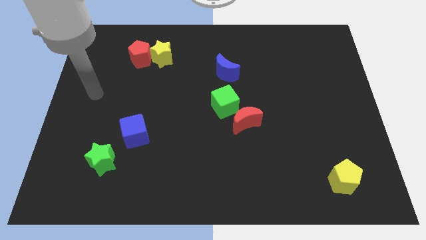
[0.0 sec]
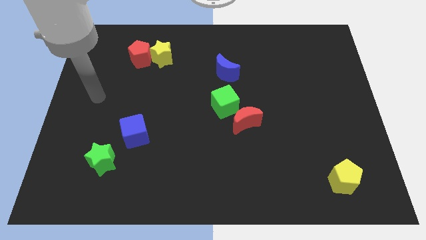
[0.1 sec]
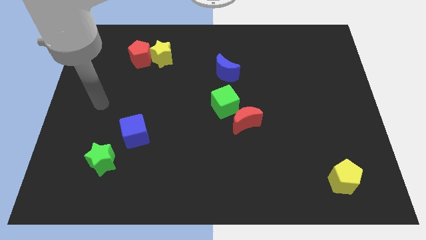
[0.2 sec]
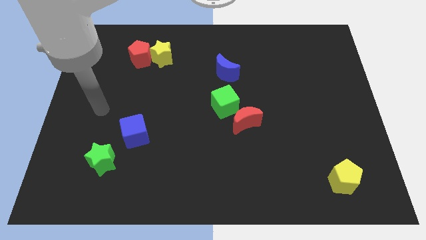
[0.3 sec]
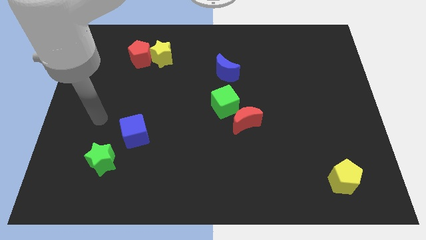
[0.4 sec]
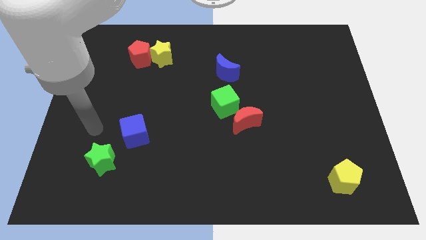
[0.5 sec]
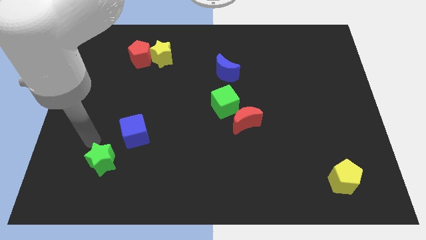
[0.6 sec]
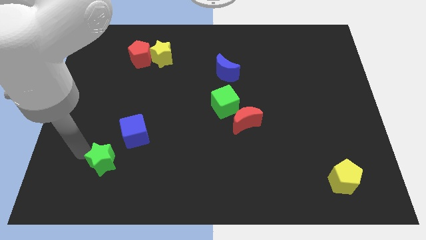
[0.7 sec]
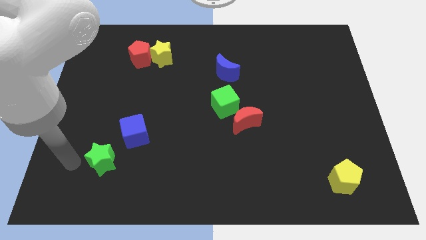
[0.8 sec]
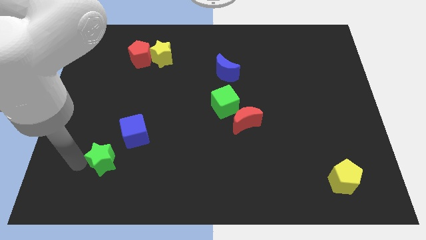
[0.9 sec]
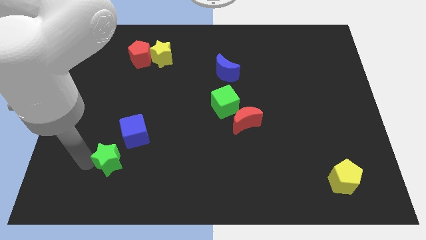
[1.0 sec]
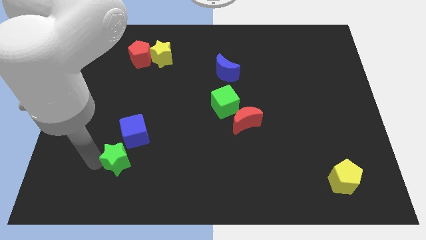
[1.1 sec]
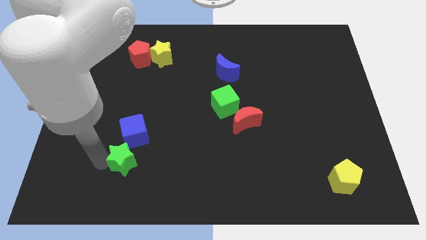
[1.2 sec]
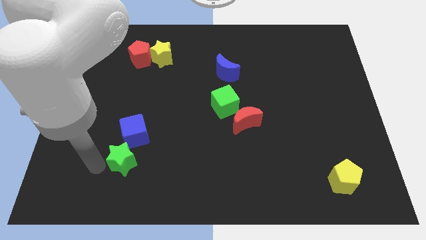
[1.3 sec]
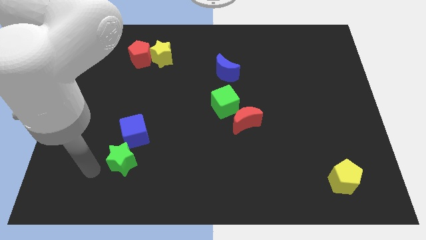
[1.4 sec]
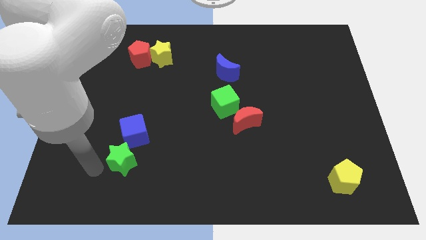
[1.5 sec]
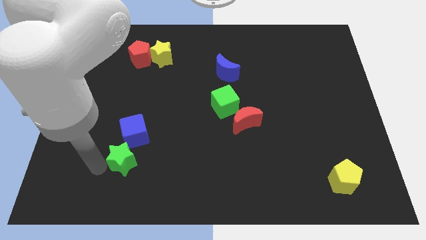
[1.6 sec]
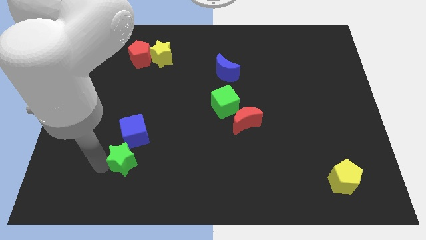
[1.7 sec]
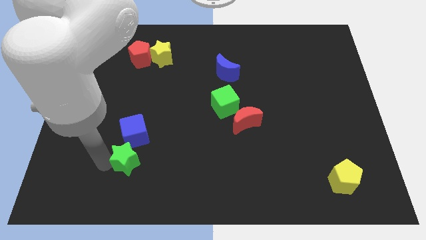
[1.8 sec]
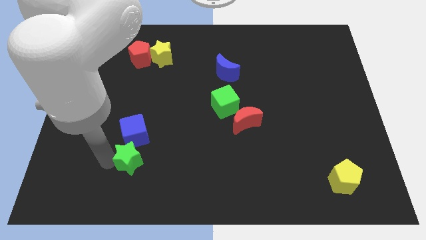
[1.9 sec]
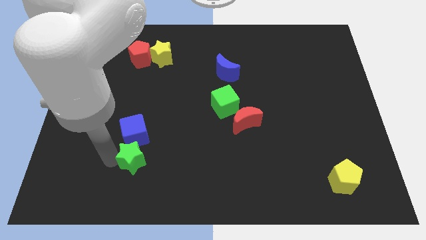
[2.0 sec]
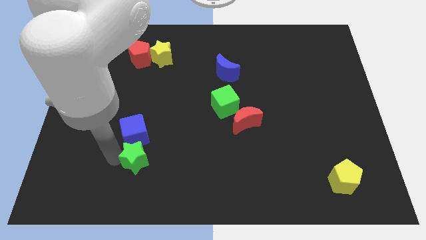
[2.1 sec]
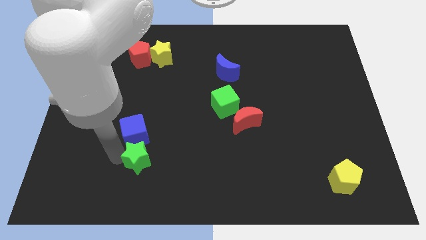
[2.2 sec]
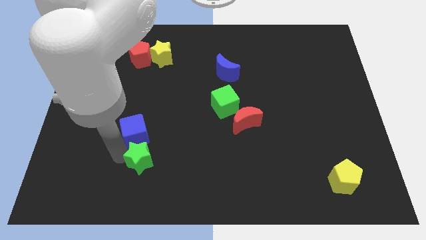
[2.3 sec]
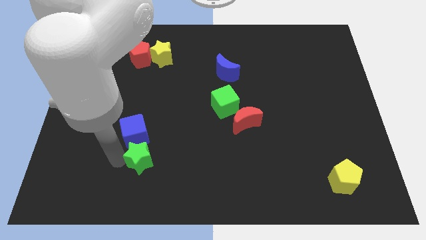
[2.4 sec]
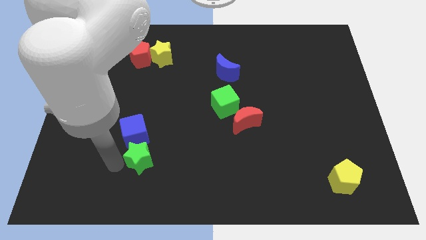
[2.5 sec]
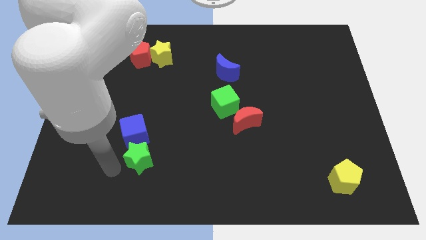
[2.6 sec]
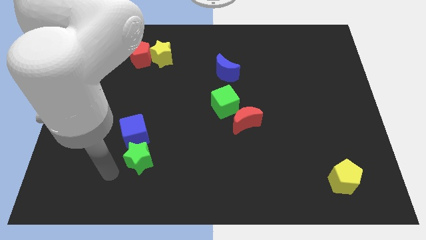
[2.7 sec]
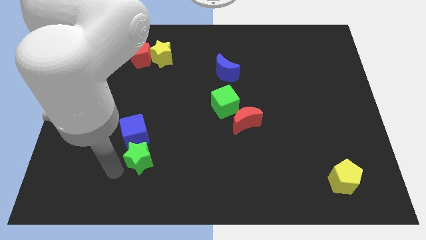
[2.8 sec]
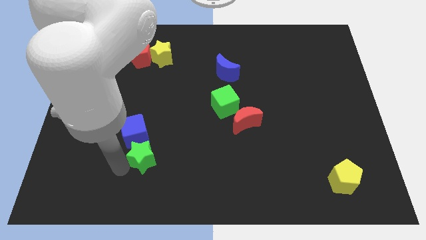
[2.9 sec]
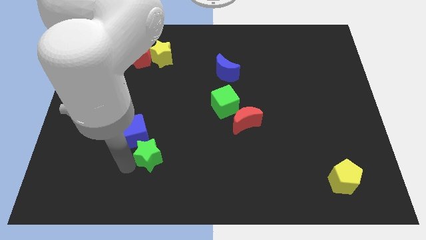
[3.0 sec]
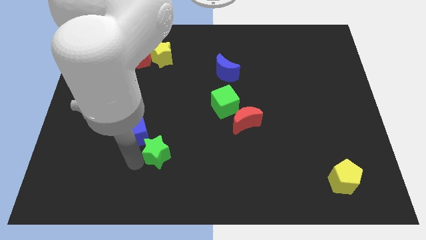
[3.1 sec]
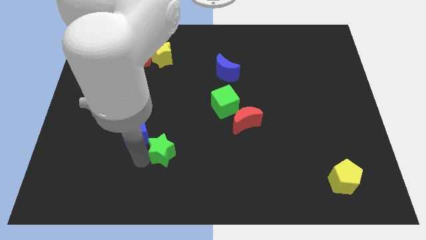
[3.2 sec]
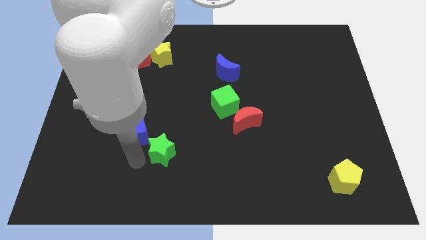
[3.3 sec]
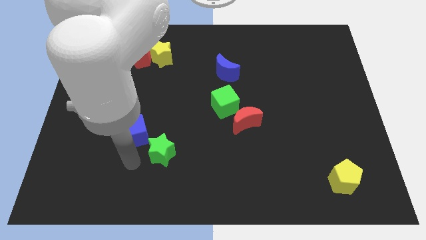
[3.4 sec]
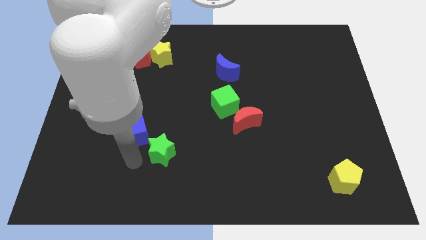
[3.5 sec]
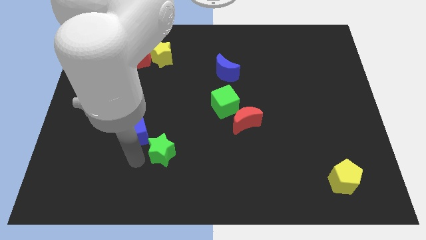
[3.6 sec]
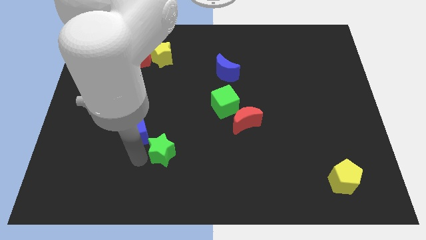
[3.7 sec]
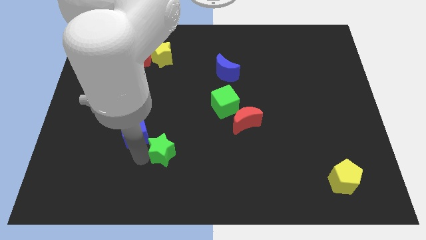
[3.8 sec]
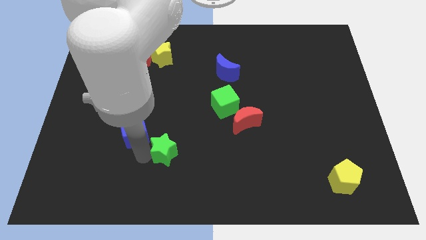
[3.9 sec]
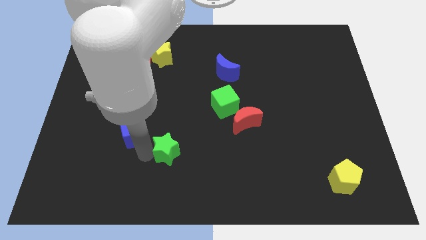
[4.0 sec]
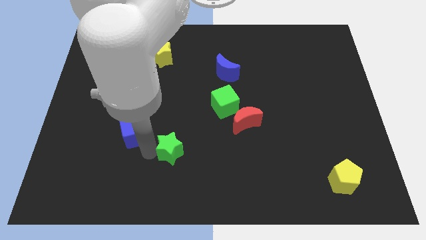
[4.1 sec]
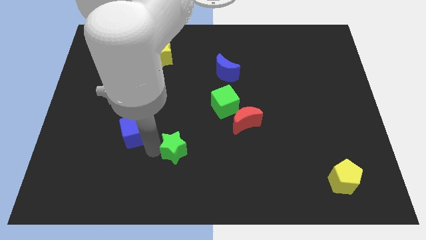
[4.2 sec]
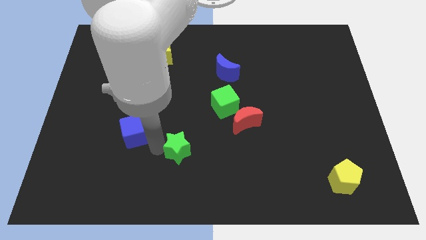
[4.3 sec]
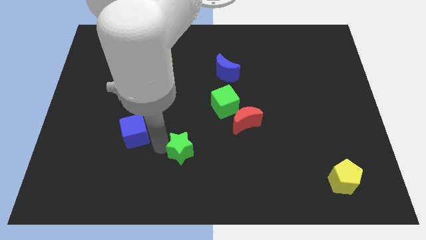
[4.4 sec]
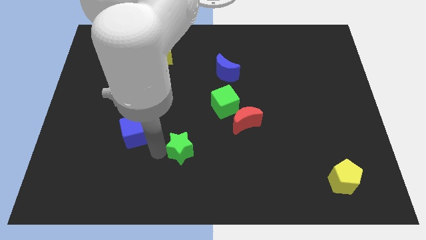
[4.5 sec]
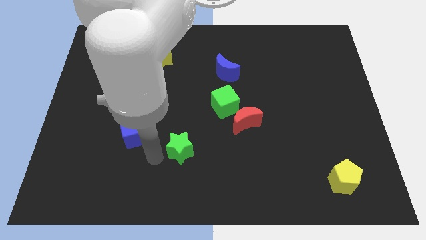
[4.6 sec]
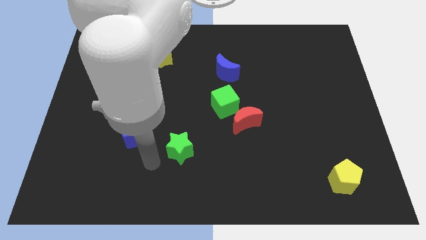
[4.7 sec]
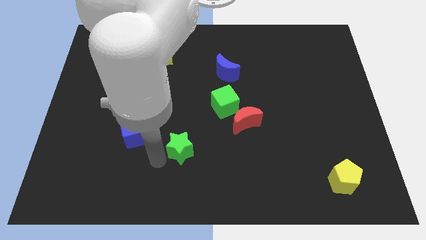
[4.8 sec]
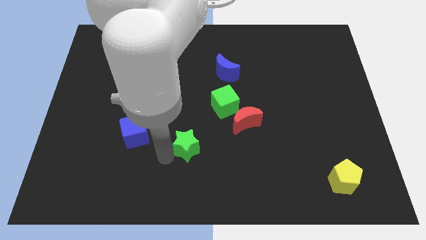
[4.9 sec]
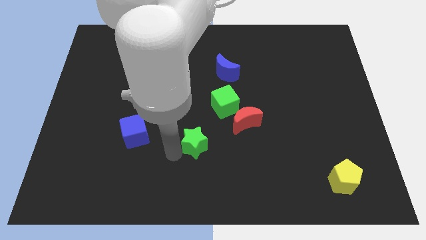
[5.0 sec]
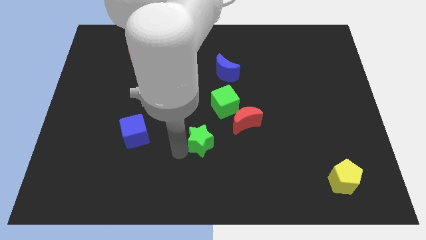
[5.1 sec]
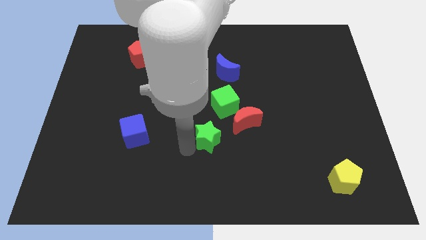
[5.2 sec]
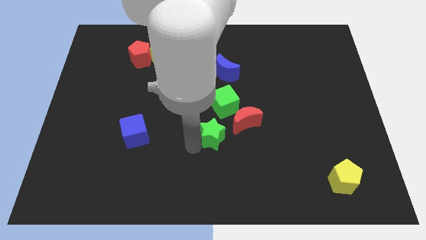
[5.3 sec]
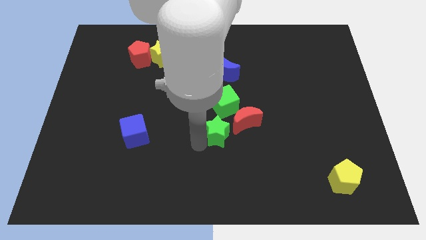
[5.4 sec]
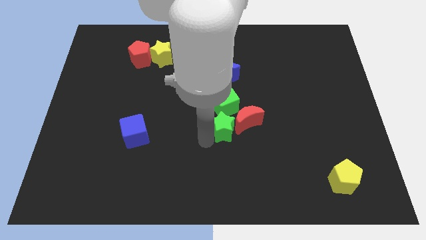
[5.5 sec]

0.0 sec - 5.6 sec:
move the green star towards the red moon

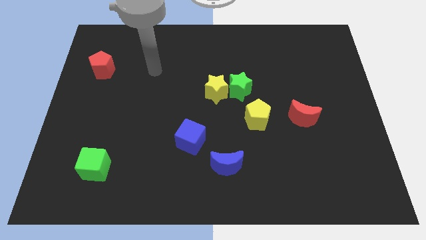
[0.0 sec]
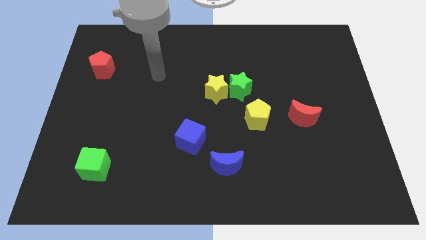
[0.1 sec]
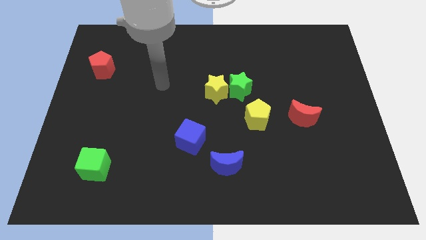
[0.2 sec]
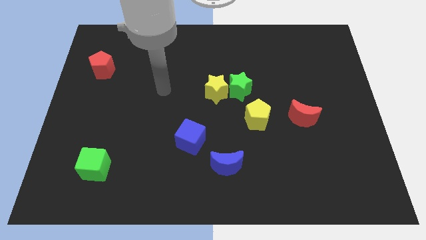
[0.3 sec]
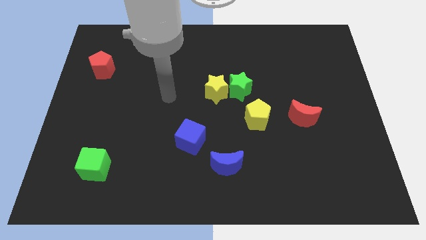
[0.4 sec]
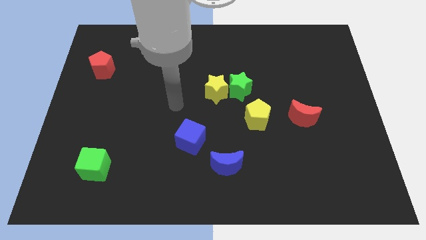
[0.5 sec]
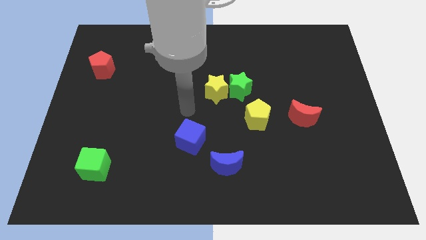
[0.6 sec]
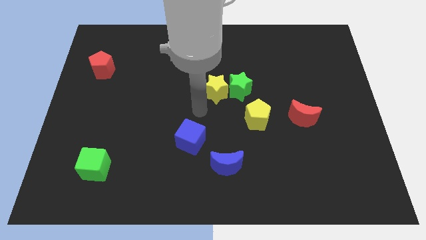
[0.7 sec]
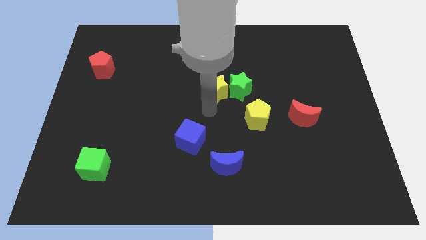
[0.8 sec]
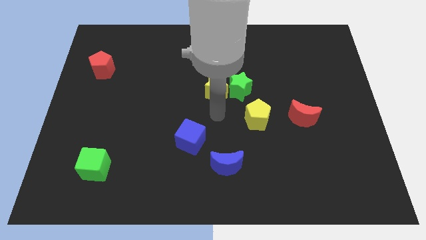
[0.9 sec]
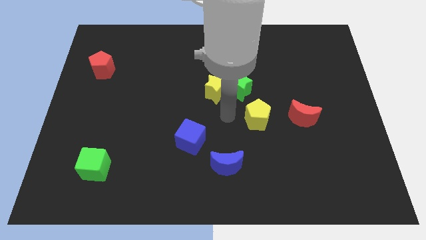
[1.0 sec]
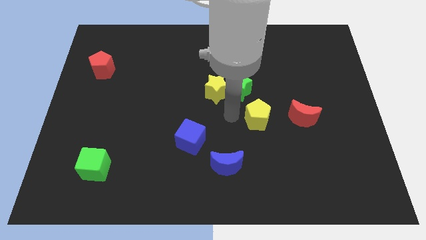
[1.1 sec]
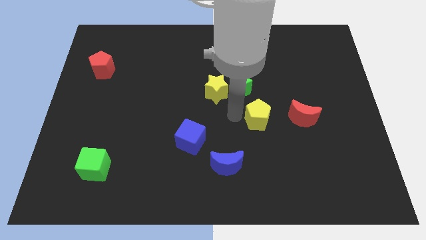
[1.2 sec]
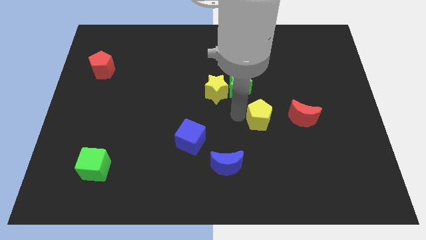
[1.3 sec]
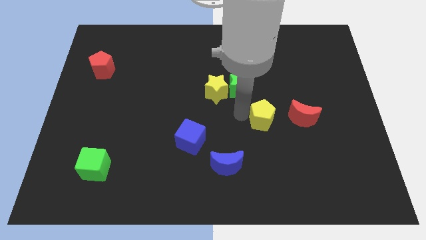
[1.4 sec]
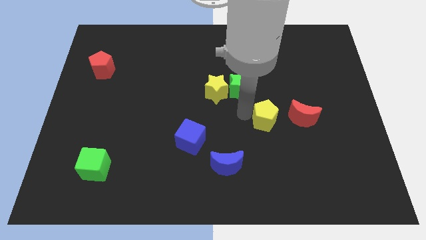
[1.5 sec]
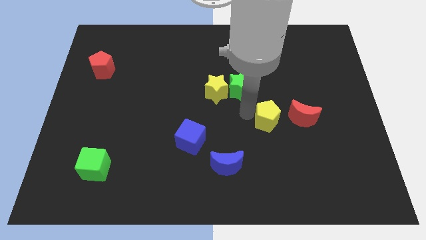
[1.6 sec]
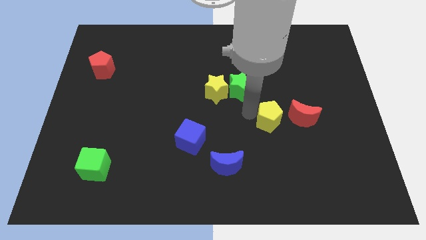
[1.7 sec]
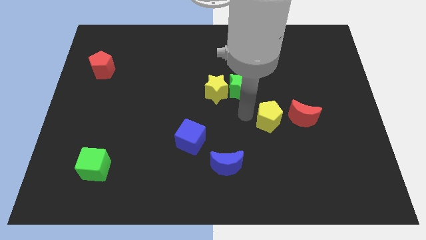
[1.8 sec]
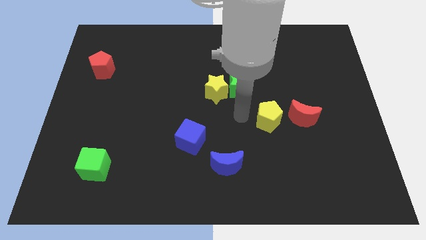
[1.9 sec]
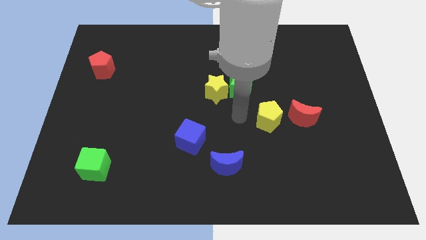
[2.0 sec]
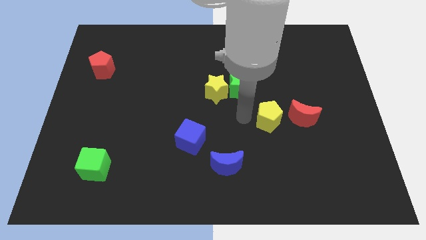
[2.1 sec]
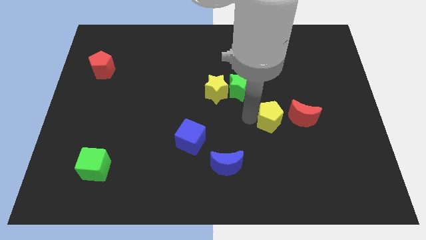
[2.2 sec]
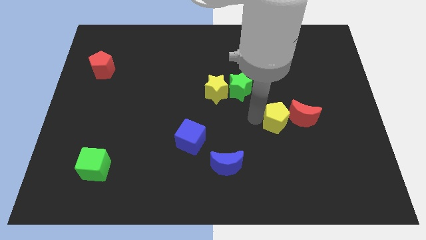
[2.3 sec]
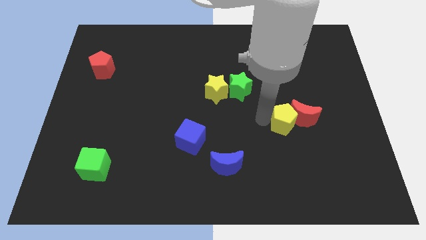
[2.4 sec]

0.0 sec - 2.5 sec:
put the yellow pentagon close to the red moon
